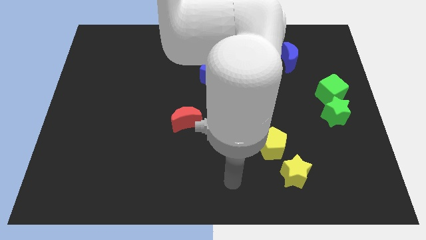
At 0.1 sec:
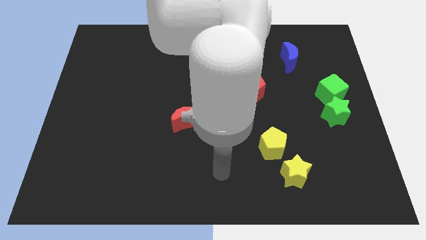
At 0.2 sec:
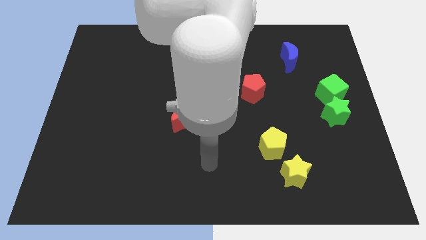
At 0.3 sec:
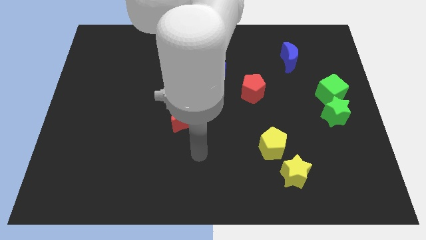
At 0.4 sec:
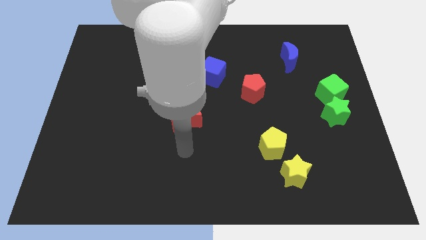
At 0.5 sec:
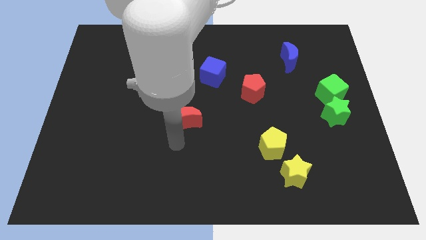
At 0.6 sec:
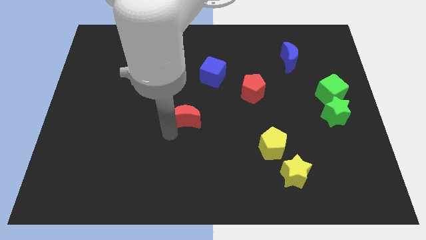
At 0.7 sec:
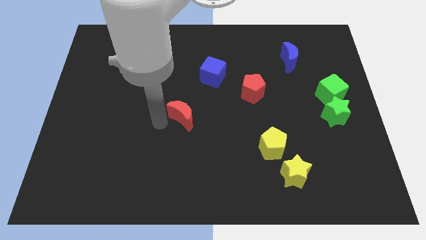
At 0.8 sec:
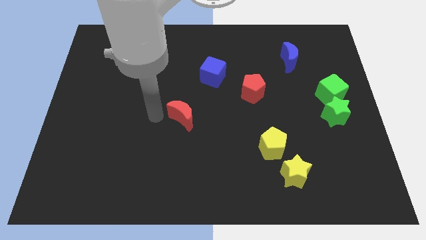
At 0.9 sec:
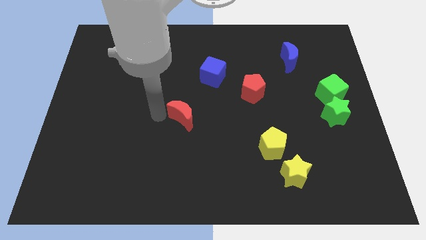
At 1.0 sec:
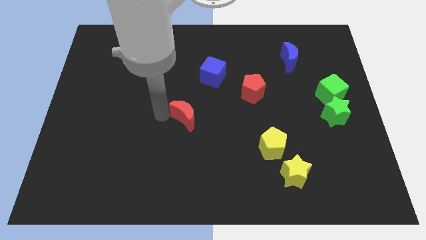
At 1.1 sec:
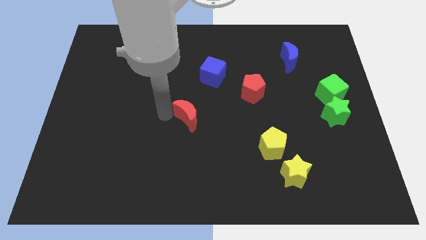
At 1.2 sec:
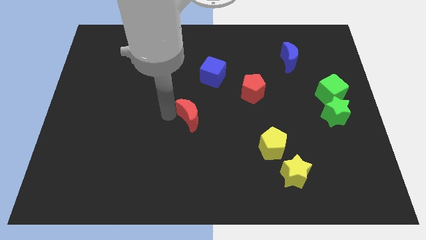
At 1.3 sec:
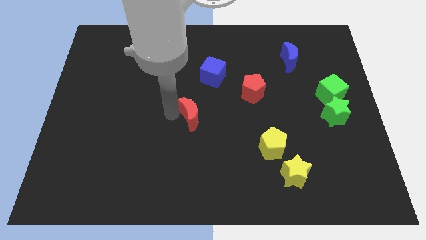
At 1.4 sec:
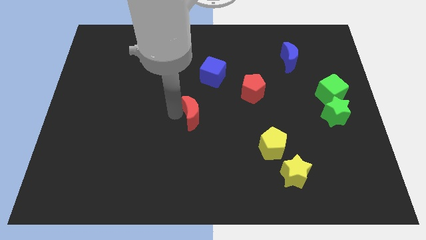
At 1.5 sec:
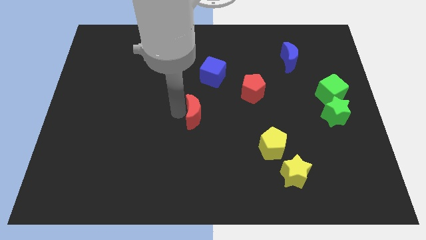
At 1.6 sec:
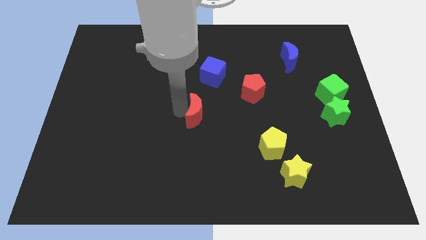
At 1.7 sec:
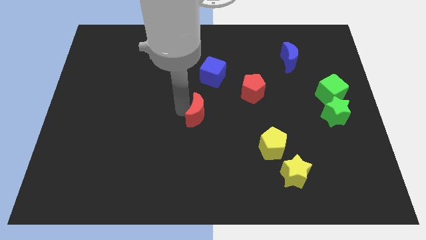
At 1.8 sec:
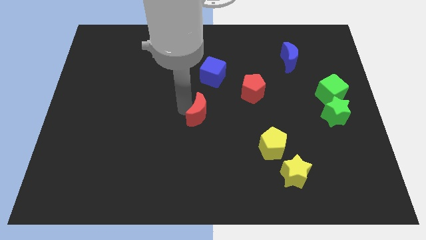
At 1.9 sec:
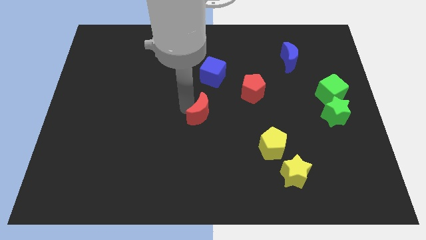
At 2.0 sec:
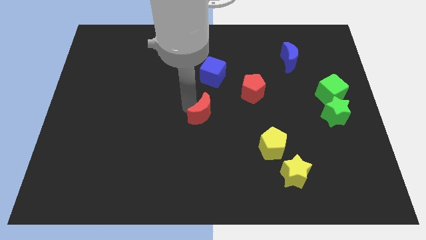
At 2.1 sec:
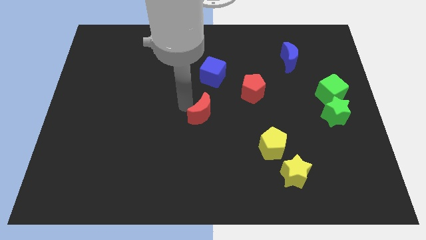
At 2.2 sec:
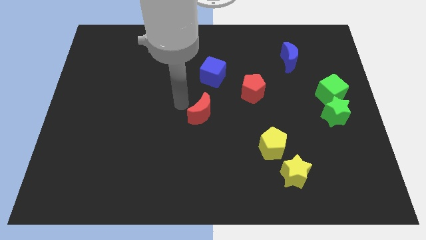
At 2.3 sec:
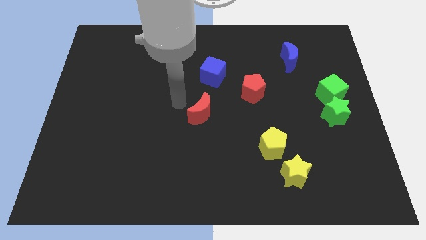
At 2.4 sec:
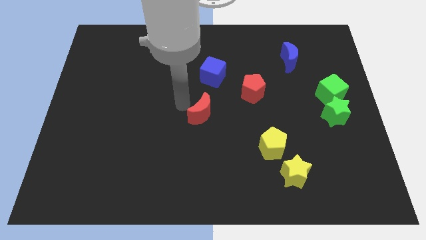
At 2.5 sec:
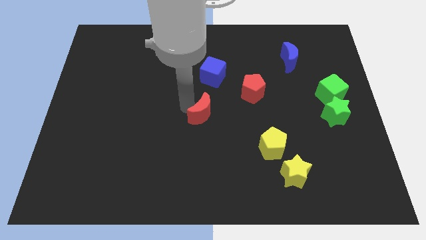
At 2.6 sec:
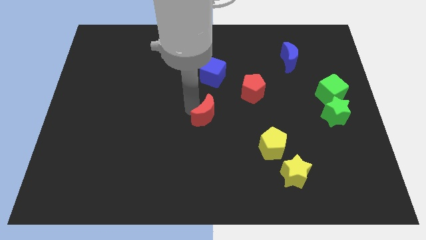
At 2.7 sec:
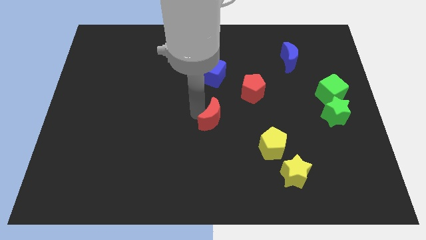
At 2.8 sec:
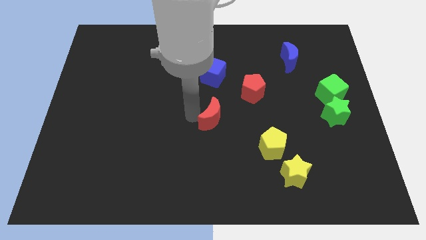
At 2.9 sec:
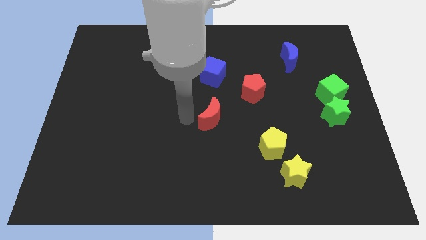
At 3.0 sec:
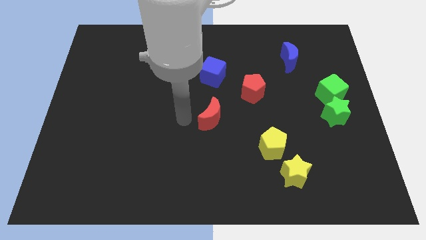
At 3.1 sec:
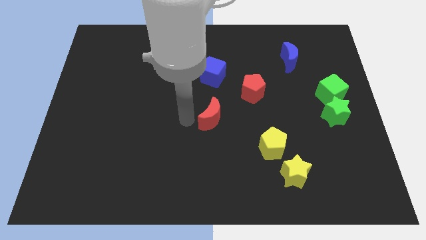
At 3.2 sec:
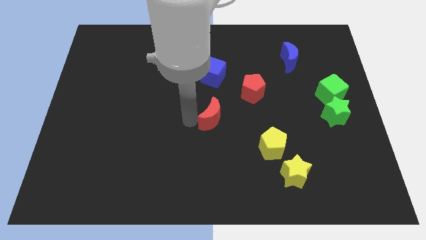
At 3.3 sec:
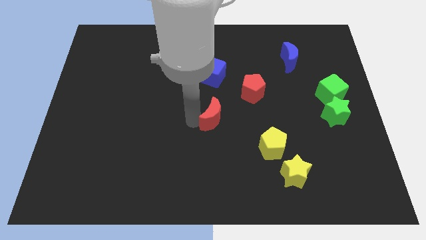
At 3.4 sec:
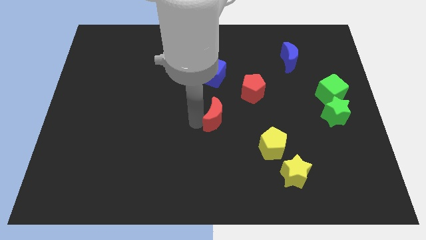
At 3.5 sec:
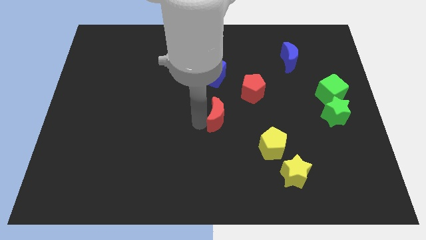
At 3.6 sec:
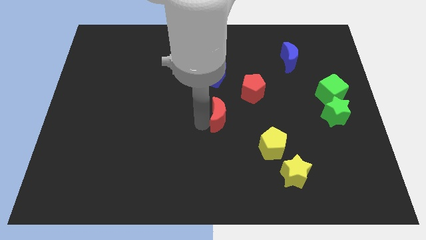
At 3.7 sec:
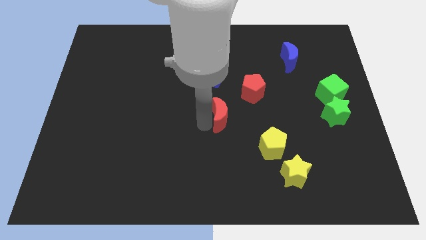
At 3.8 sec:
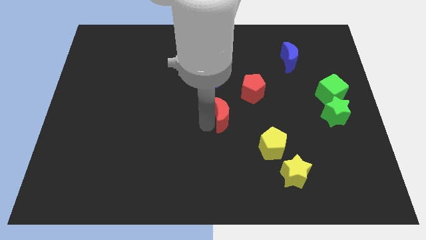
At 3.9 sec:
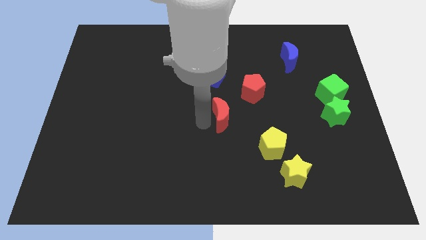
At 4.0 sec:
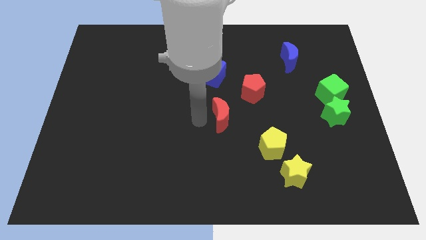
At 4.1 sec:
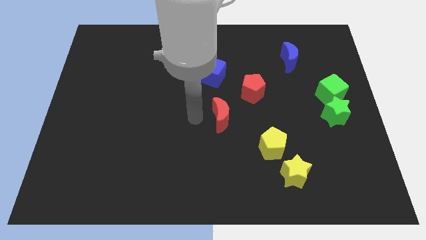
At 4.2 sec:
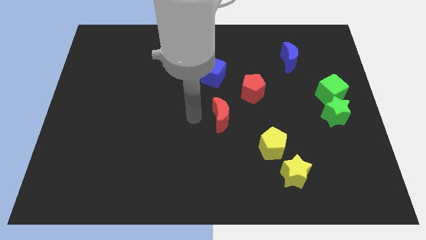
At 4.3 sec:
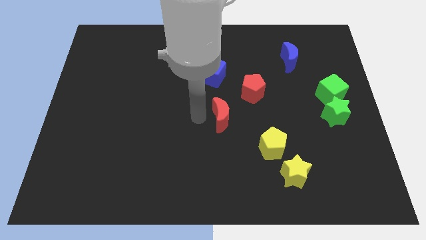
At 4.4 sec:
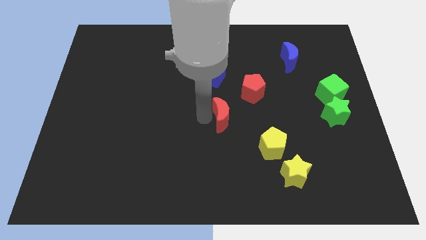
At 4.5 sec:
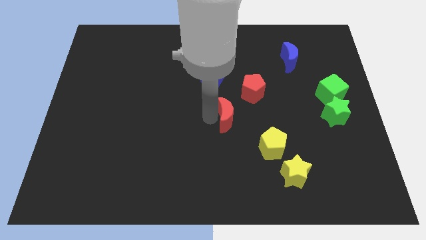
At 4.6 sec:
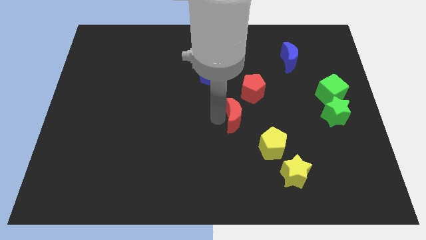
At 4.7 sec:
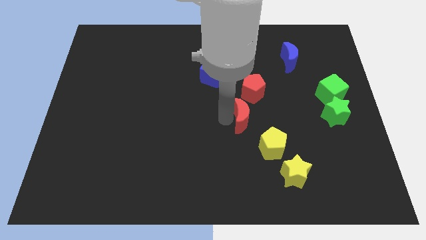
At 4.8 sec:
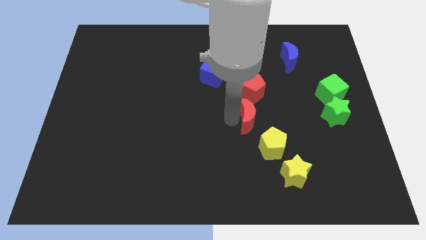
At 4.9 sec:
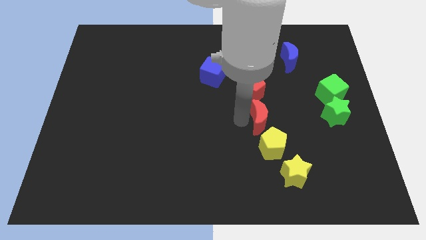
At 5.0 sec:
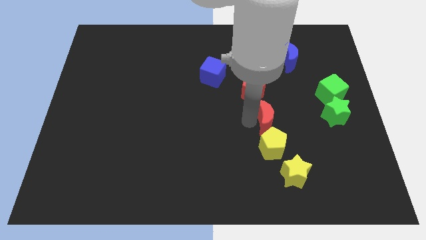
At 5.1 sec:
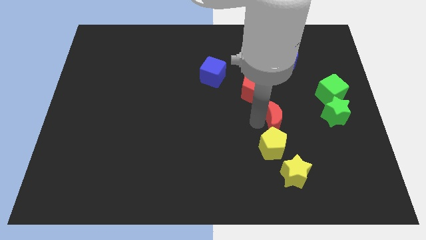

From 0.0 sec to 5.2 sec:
move the red moon to the left side of the green star

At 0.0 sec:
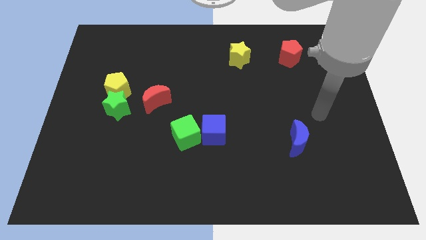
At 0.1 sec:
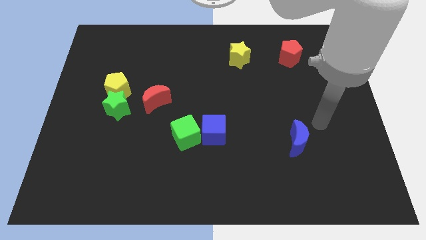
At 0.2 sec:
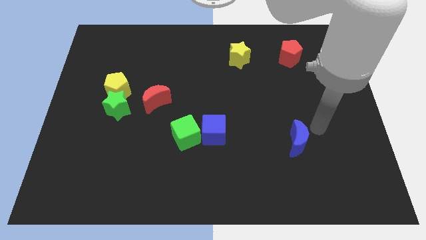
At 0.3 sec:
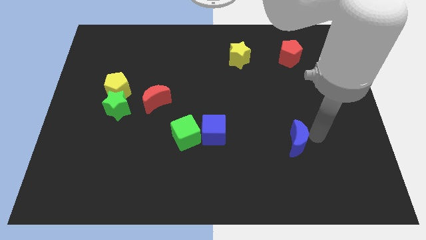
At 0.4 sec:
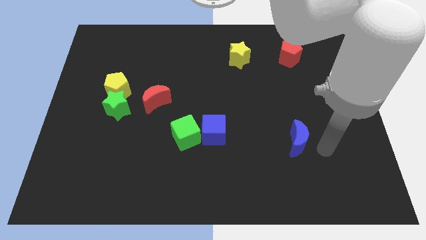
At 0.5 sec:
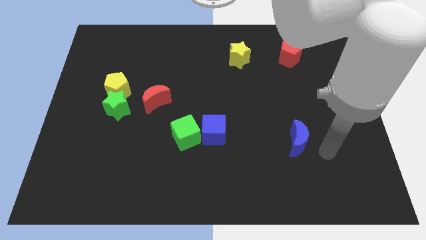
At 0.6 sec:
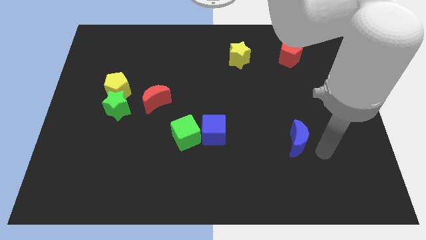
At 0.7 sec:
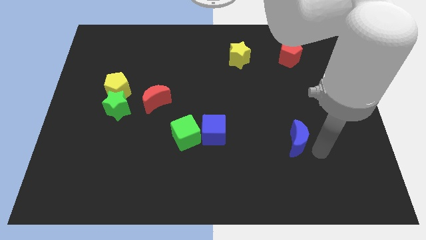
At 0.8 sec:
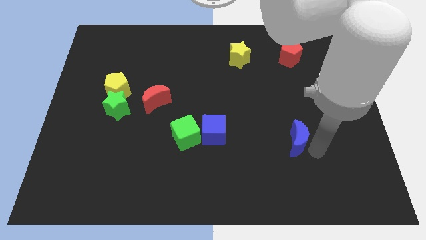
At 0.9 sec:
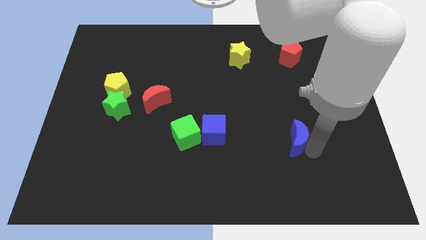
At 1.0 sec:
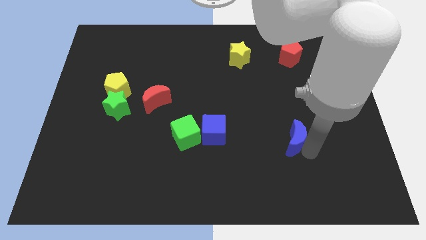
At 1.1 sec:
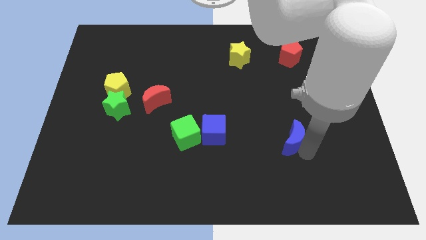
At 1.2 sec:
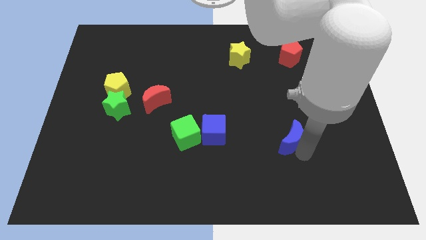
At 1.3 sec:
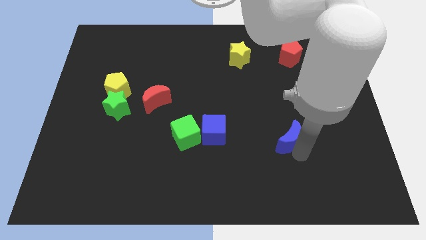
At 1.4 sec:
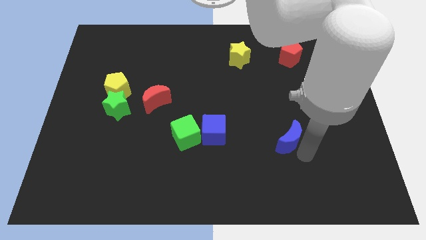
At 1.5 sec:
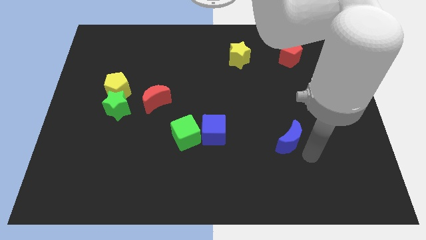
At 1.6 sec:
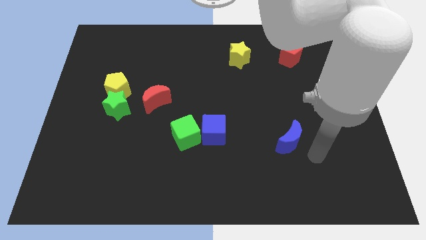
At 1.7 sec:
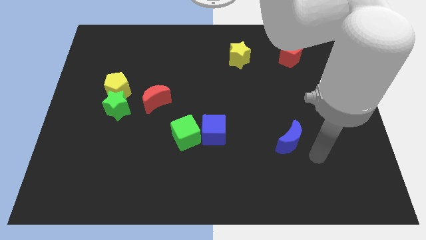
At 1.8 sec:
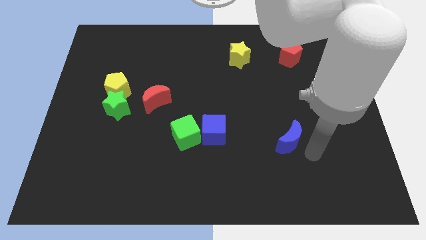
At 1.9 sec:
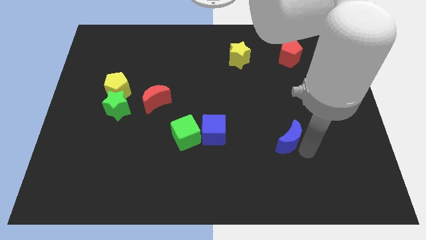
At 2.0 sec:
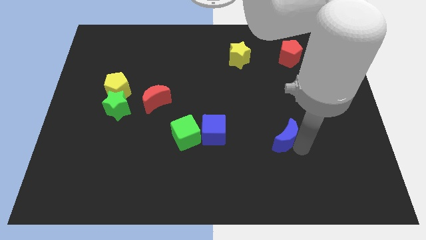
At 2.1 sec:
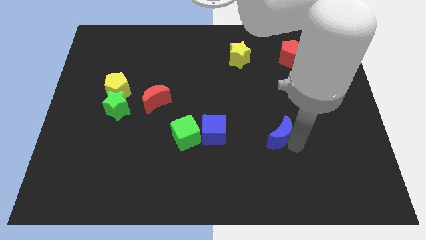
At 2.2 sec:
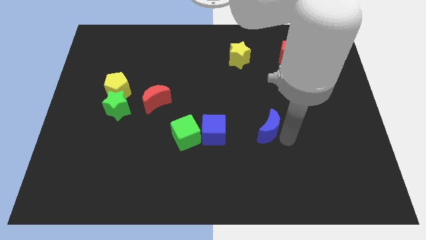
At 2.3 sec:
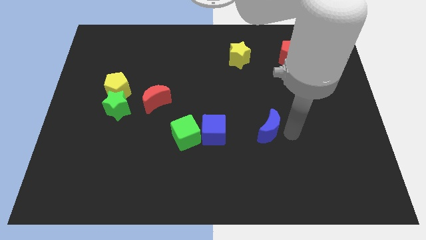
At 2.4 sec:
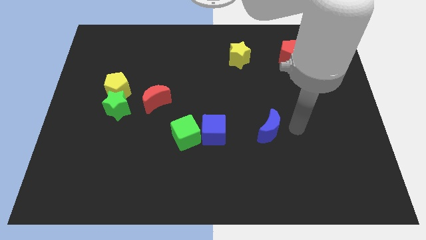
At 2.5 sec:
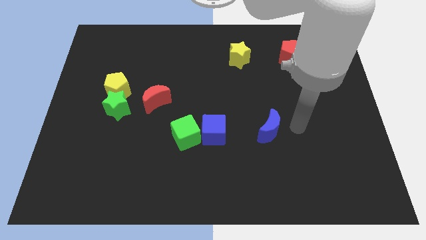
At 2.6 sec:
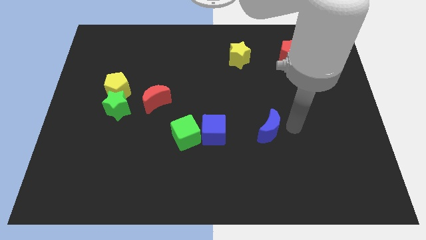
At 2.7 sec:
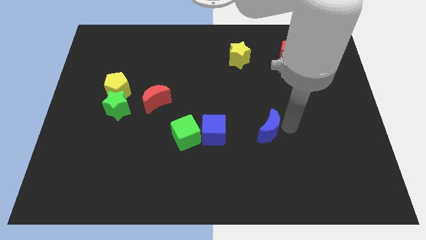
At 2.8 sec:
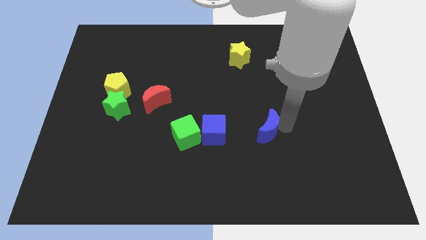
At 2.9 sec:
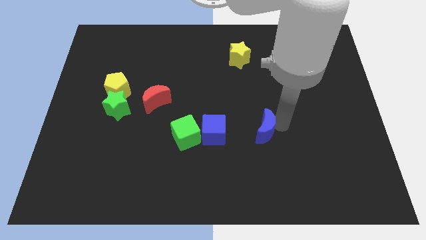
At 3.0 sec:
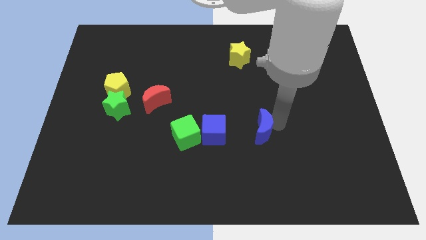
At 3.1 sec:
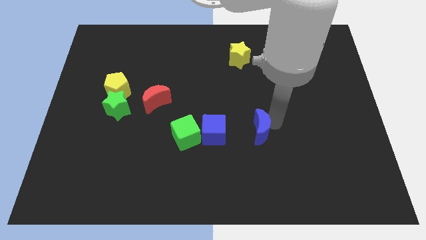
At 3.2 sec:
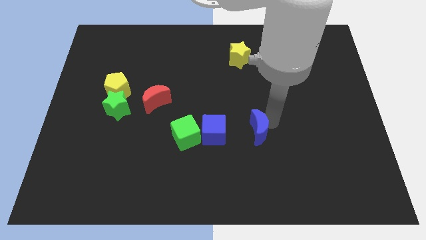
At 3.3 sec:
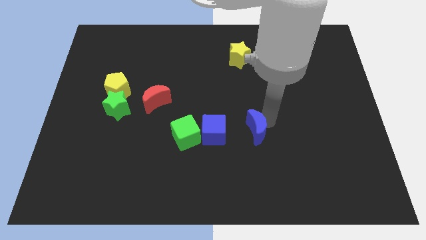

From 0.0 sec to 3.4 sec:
slide the blue moon to the right of the green cube
